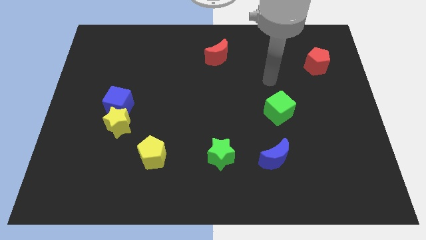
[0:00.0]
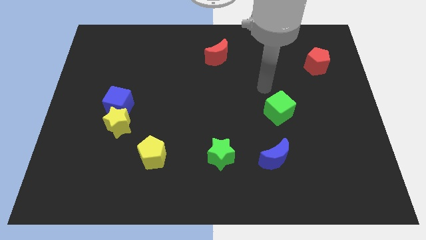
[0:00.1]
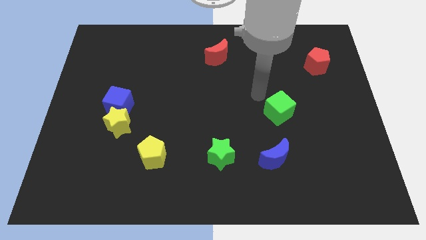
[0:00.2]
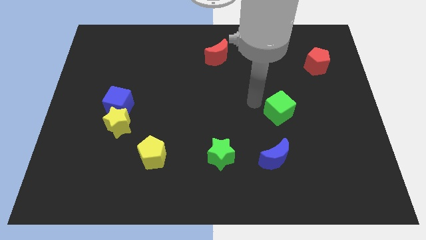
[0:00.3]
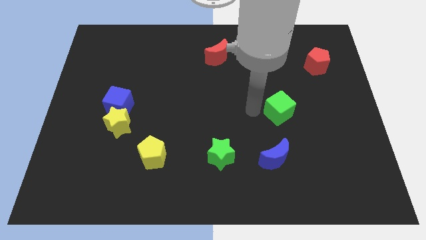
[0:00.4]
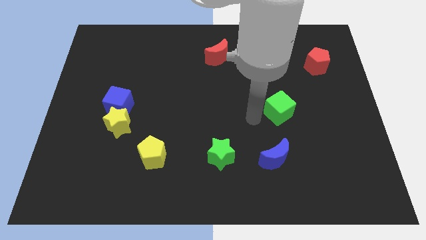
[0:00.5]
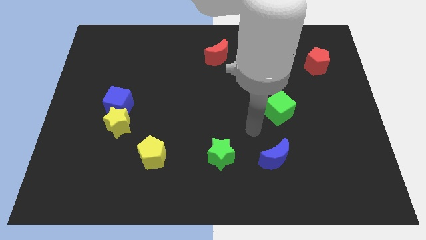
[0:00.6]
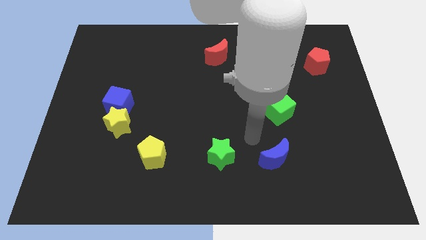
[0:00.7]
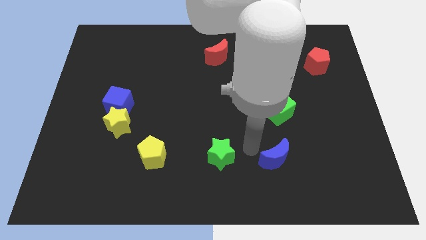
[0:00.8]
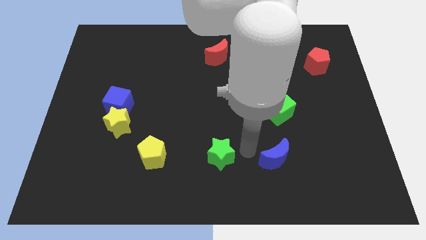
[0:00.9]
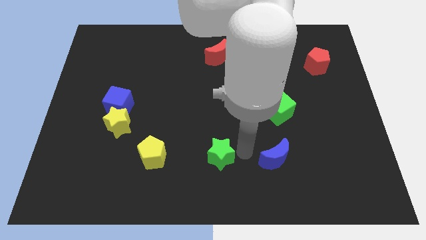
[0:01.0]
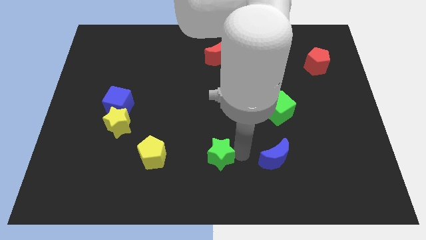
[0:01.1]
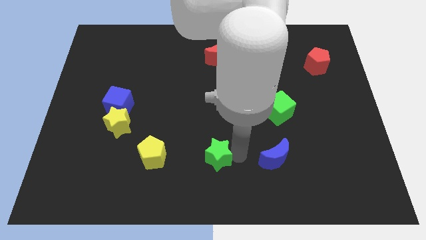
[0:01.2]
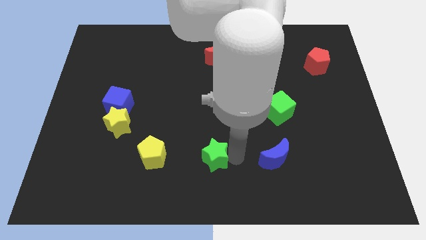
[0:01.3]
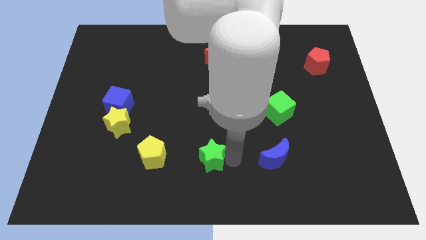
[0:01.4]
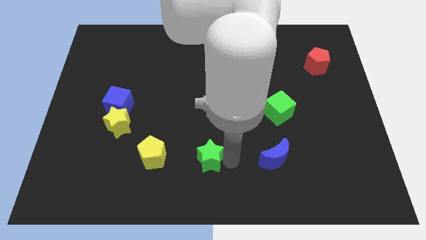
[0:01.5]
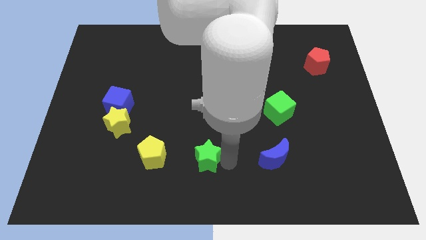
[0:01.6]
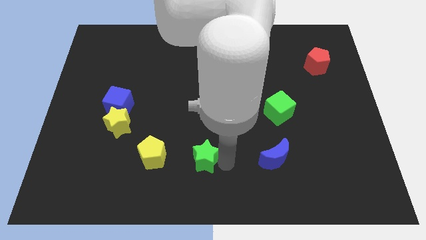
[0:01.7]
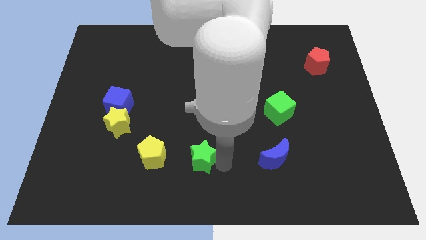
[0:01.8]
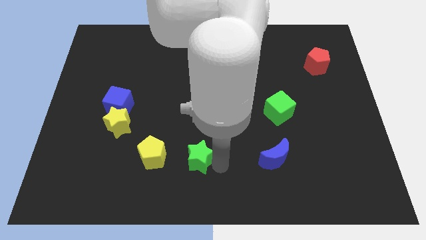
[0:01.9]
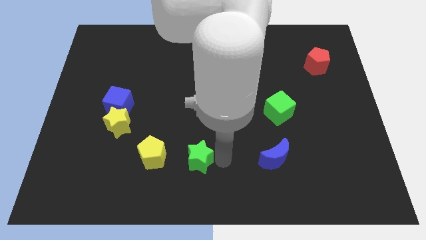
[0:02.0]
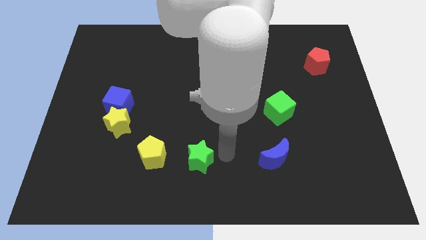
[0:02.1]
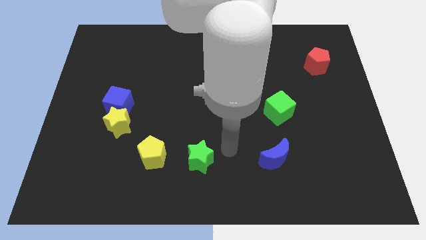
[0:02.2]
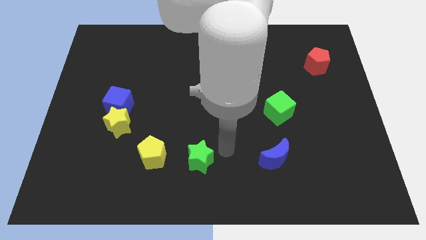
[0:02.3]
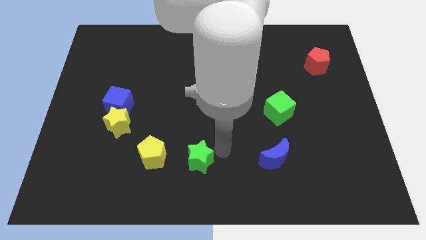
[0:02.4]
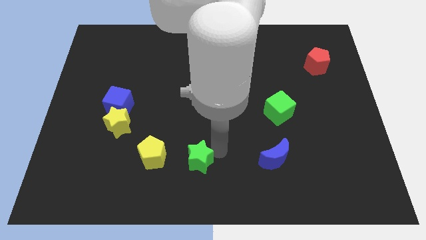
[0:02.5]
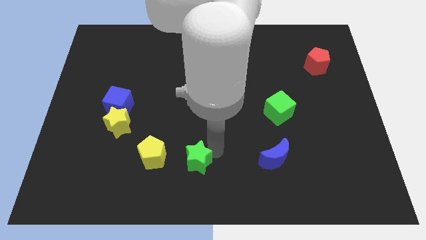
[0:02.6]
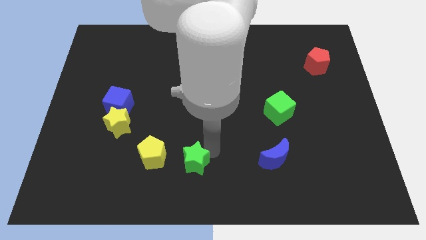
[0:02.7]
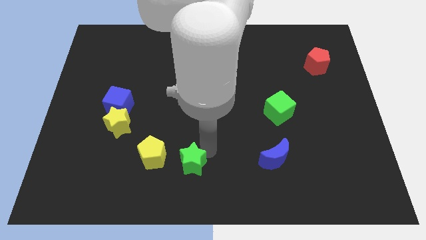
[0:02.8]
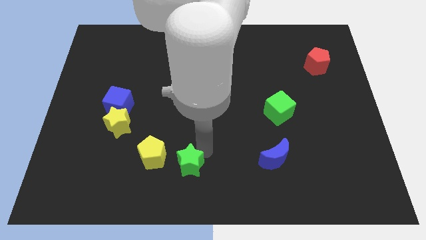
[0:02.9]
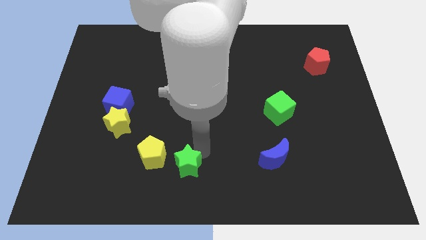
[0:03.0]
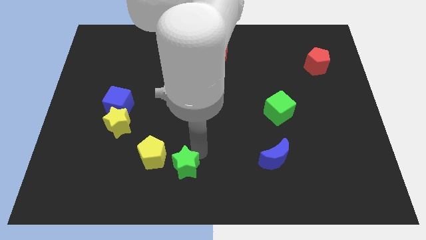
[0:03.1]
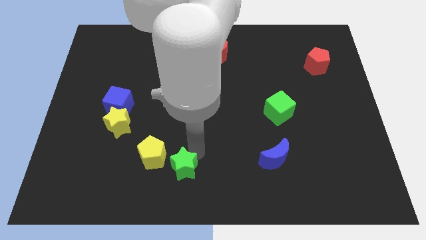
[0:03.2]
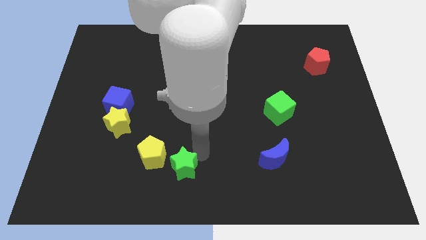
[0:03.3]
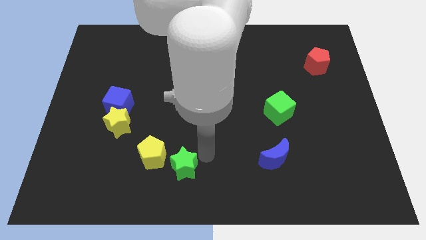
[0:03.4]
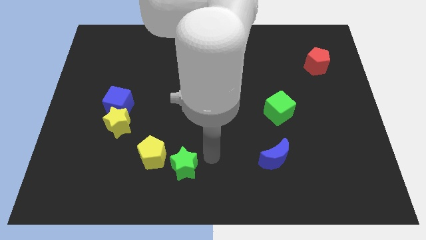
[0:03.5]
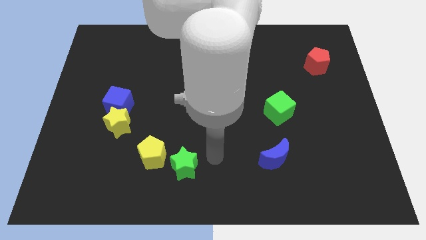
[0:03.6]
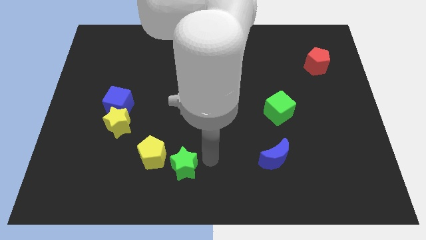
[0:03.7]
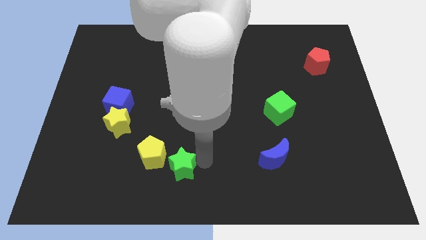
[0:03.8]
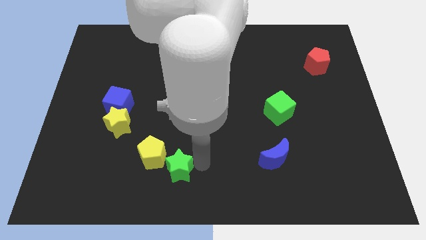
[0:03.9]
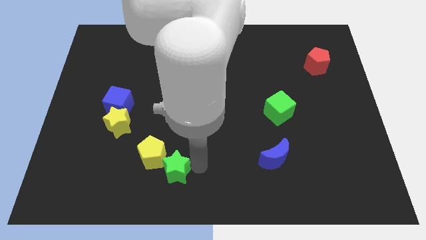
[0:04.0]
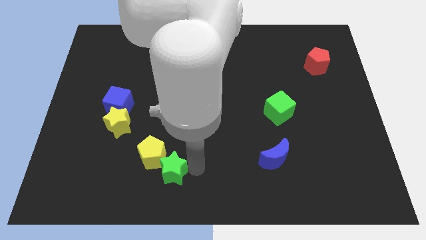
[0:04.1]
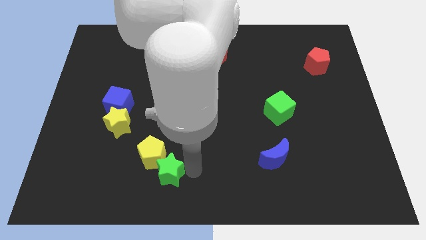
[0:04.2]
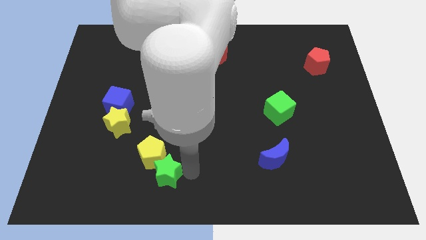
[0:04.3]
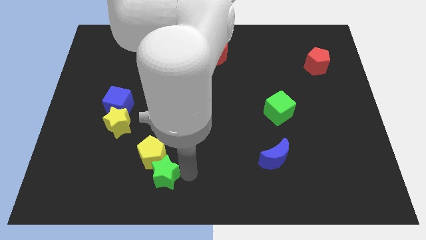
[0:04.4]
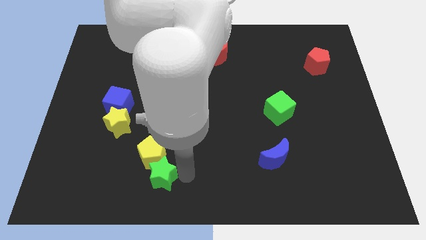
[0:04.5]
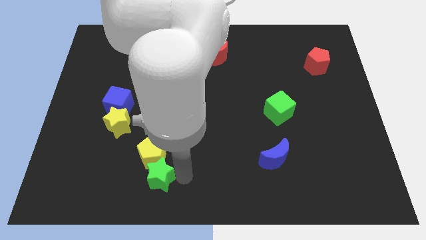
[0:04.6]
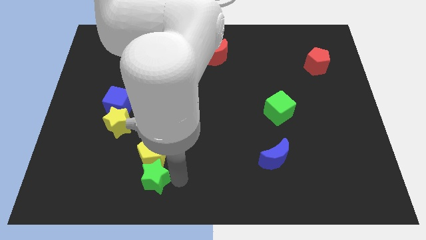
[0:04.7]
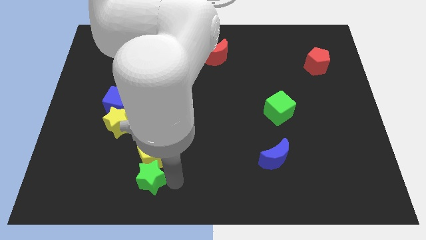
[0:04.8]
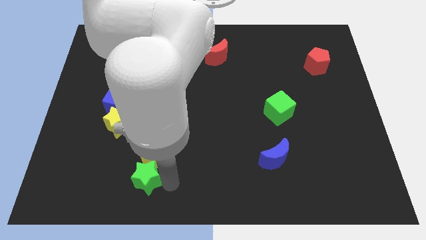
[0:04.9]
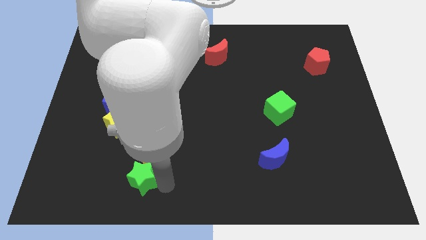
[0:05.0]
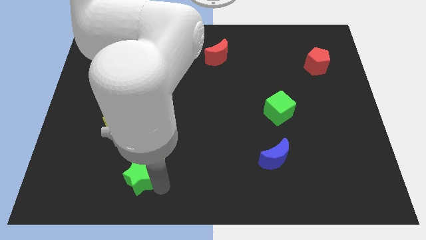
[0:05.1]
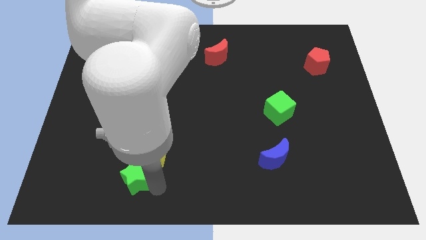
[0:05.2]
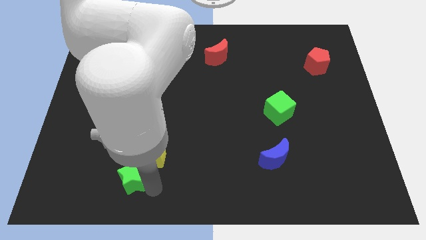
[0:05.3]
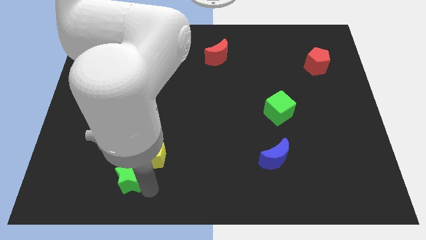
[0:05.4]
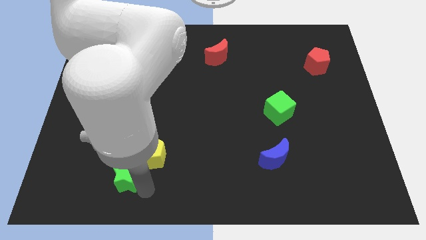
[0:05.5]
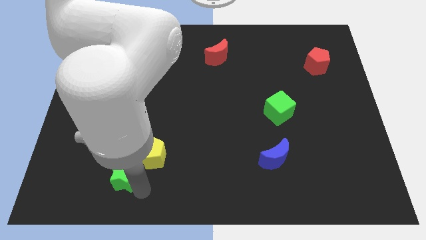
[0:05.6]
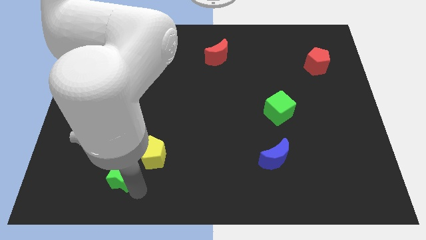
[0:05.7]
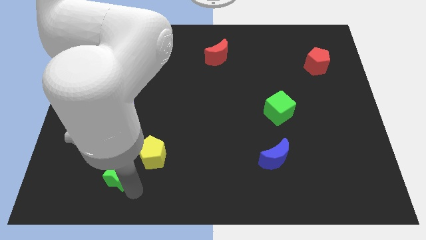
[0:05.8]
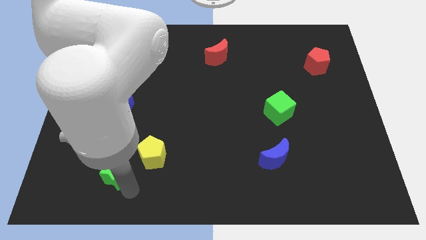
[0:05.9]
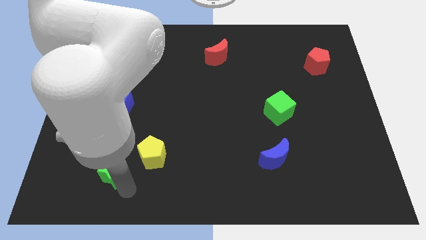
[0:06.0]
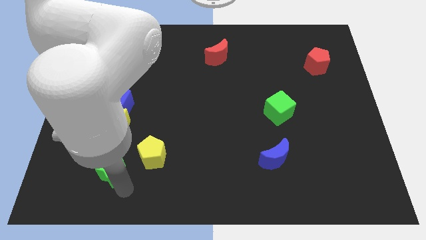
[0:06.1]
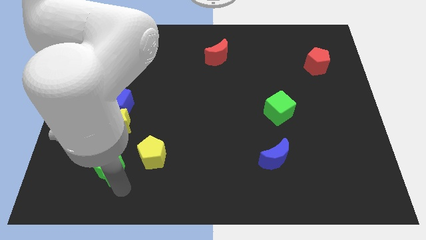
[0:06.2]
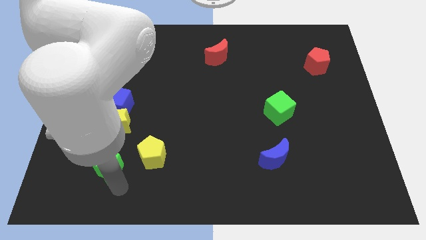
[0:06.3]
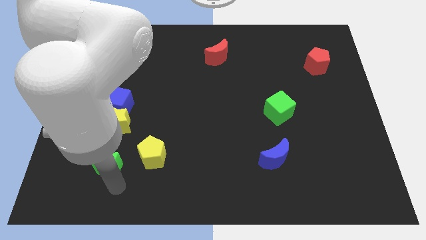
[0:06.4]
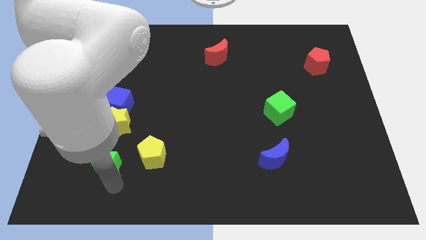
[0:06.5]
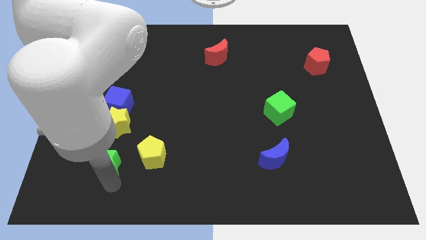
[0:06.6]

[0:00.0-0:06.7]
move the green star to the bottom side of the blue cube

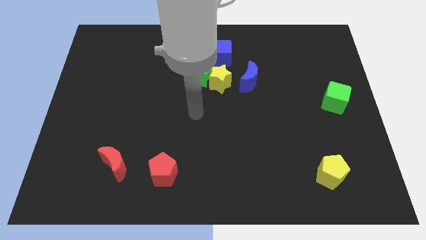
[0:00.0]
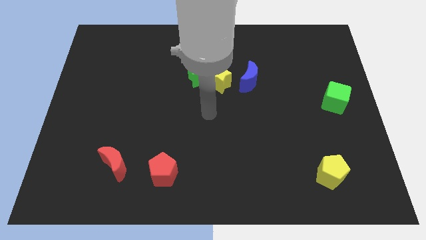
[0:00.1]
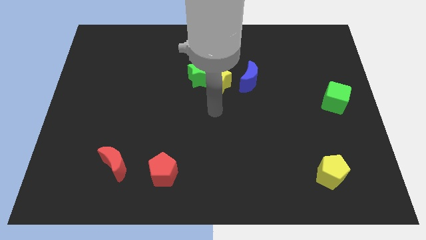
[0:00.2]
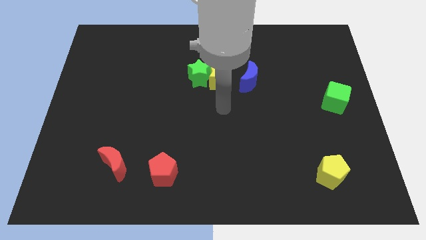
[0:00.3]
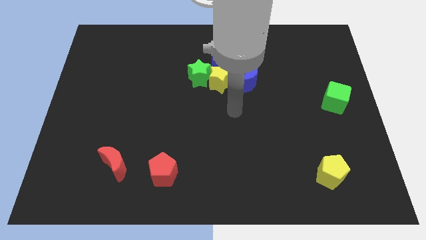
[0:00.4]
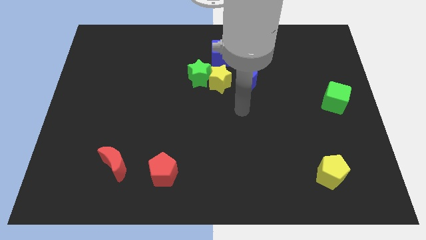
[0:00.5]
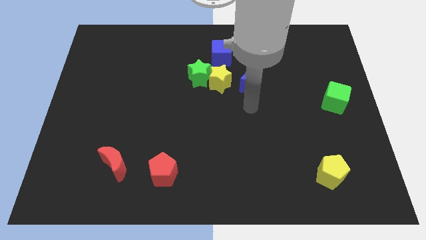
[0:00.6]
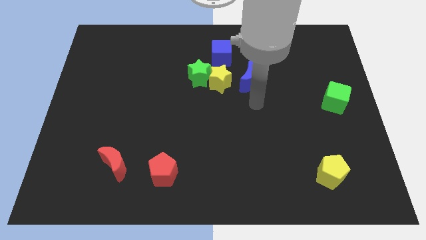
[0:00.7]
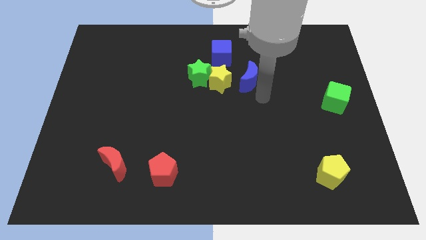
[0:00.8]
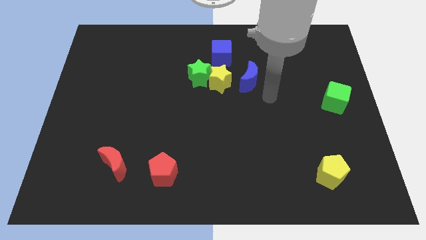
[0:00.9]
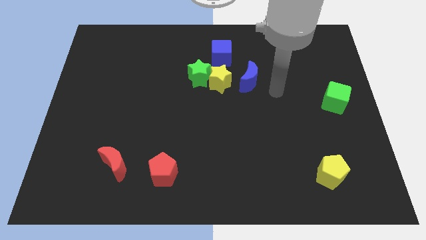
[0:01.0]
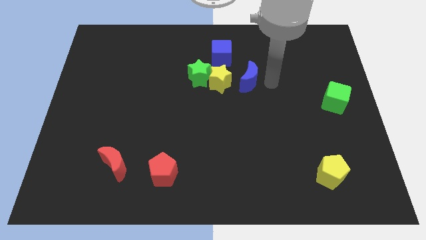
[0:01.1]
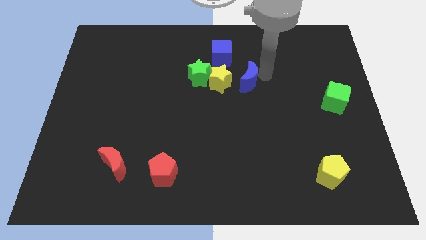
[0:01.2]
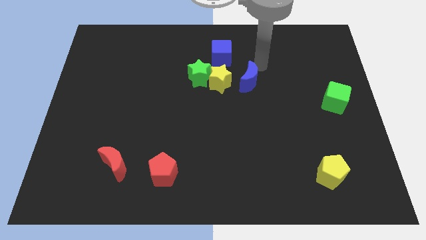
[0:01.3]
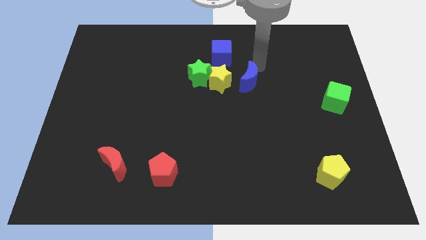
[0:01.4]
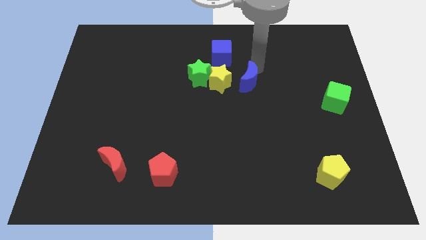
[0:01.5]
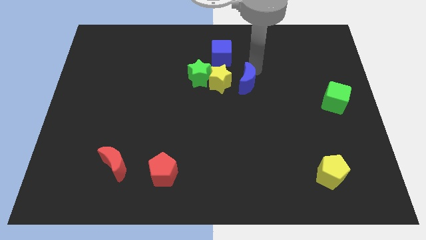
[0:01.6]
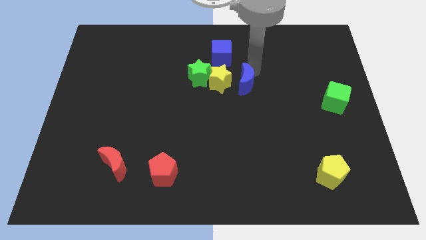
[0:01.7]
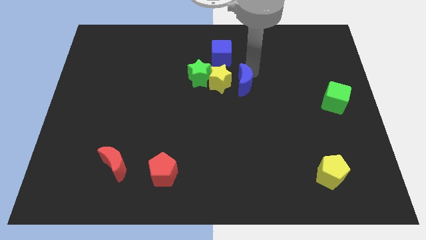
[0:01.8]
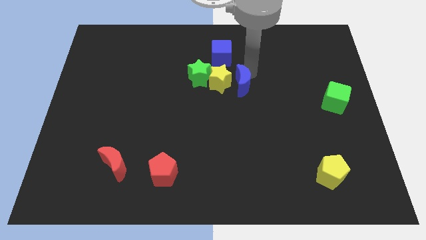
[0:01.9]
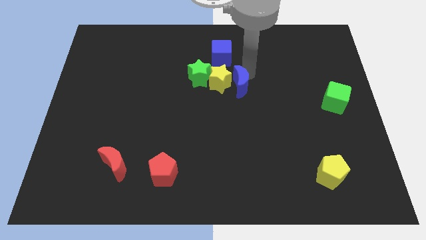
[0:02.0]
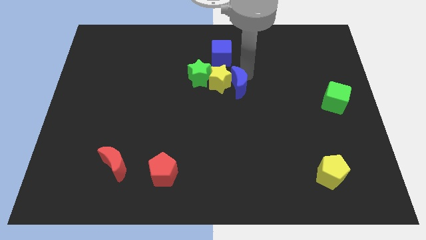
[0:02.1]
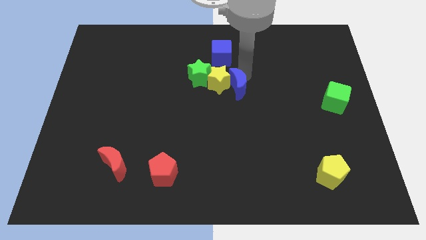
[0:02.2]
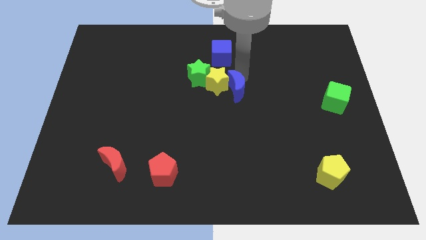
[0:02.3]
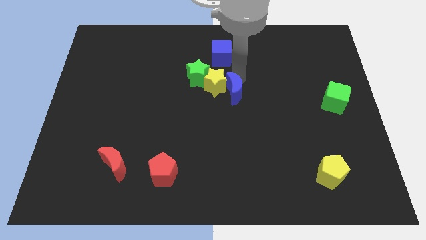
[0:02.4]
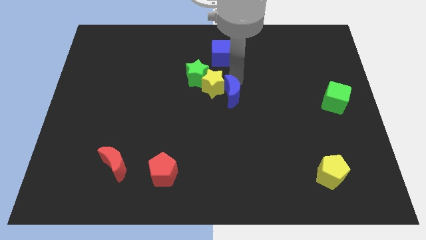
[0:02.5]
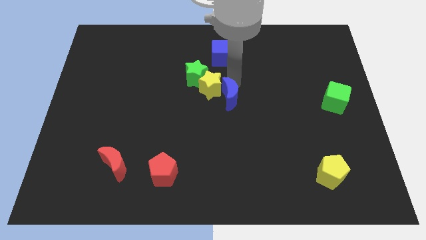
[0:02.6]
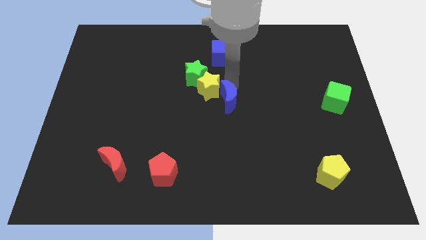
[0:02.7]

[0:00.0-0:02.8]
move the blue moon to the bottom of the yellow star
